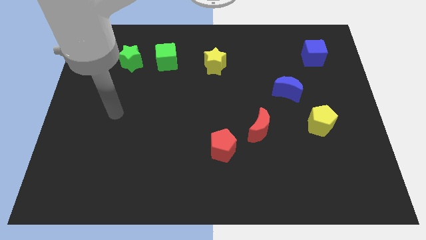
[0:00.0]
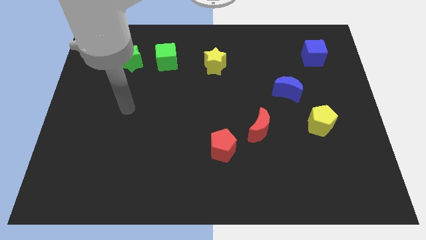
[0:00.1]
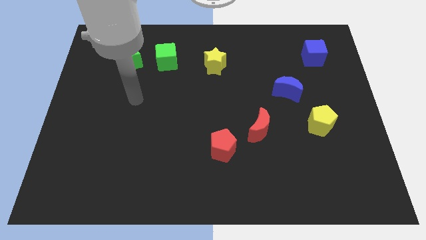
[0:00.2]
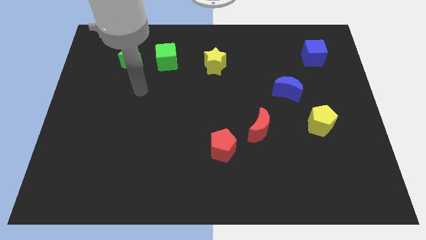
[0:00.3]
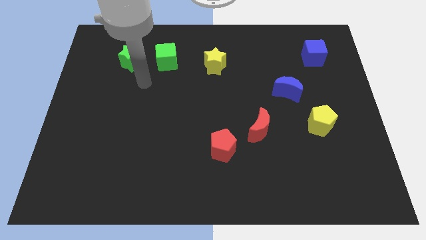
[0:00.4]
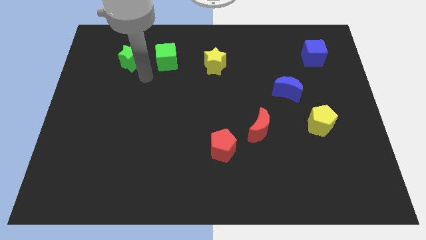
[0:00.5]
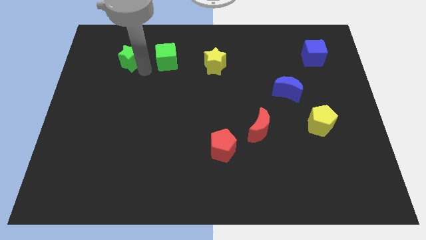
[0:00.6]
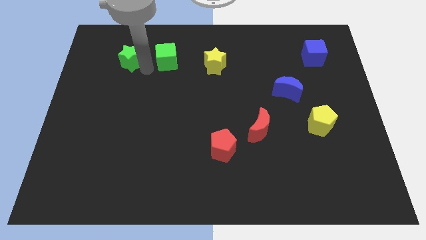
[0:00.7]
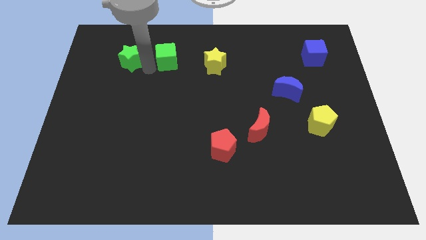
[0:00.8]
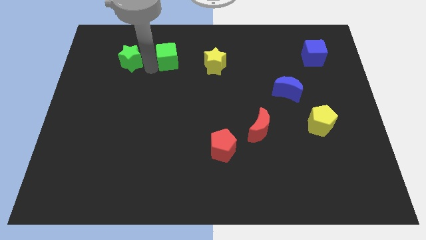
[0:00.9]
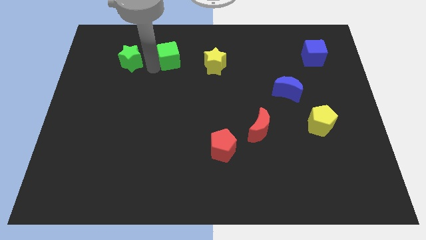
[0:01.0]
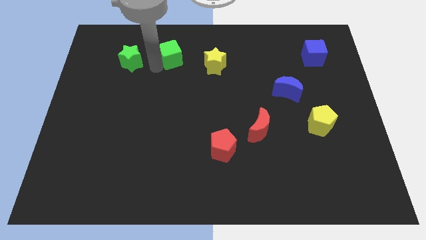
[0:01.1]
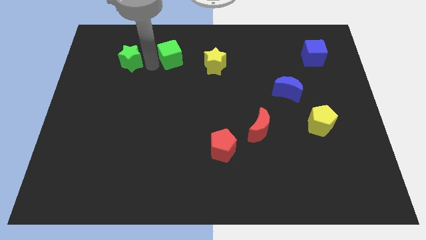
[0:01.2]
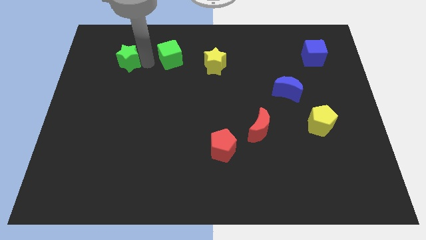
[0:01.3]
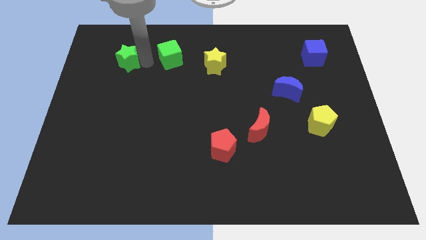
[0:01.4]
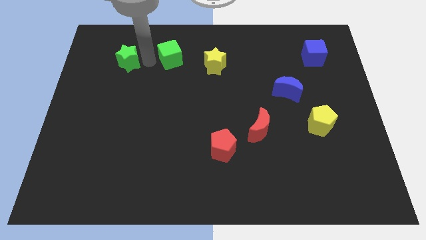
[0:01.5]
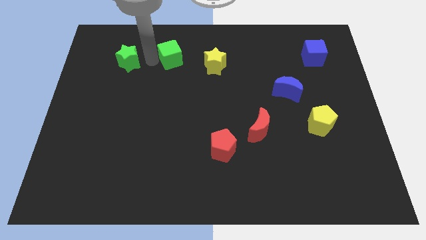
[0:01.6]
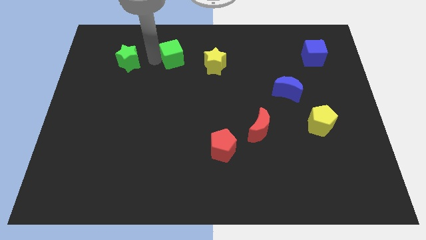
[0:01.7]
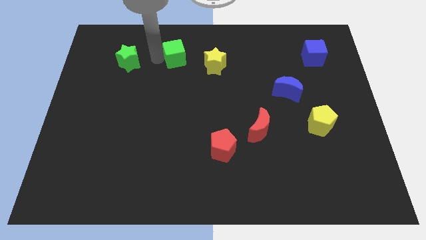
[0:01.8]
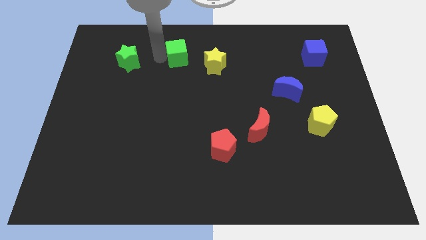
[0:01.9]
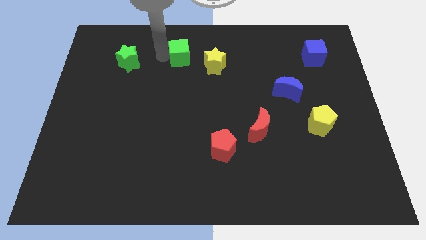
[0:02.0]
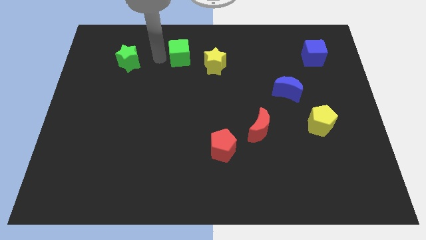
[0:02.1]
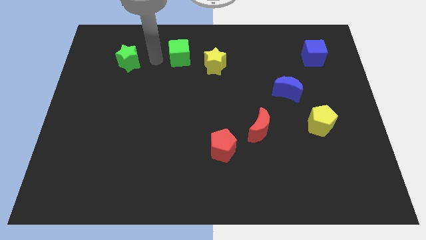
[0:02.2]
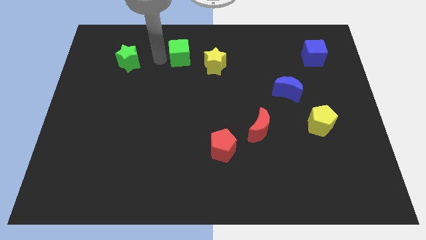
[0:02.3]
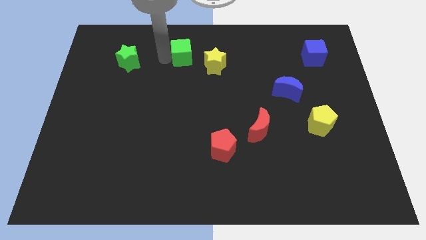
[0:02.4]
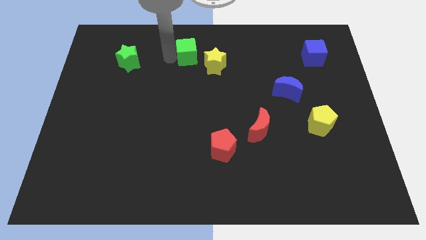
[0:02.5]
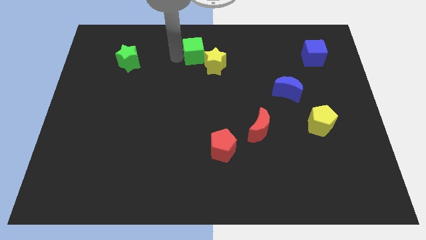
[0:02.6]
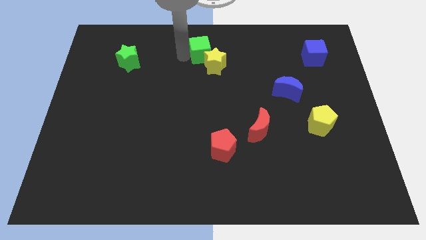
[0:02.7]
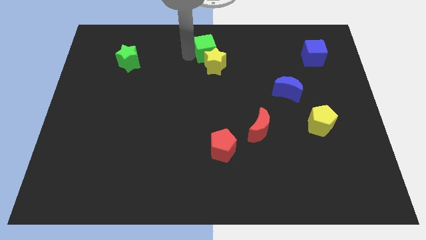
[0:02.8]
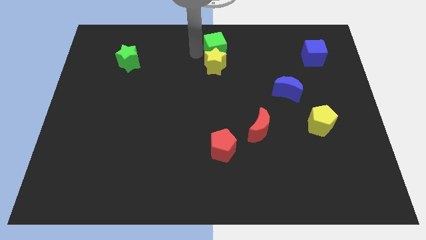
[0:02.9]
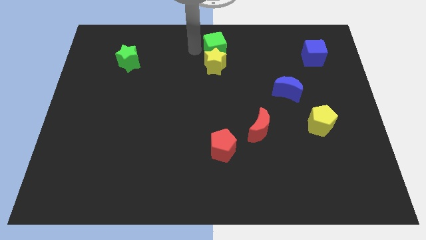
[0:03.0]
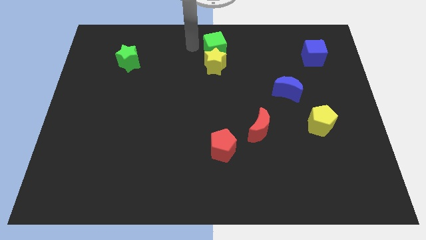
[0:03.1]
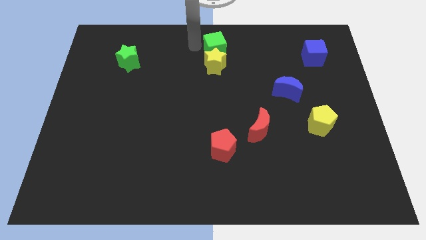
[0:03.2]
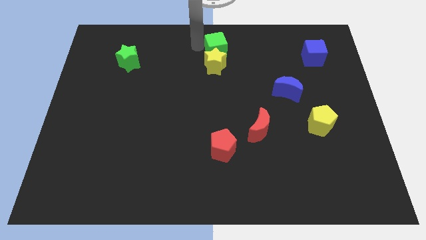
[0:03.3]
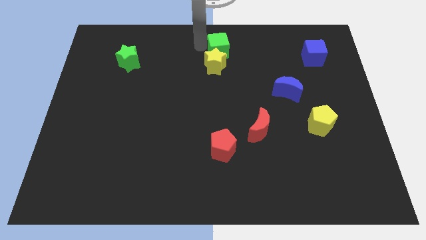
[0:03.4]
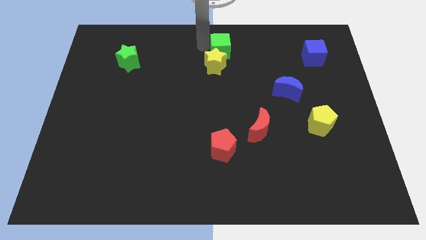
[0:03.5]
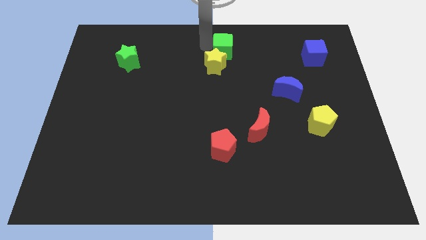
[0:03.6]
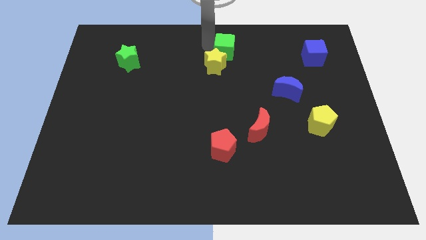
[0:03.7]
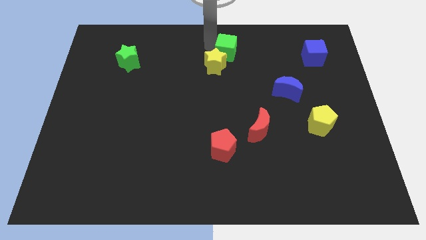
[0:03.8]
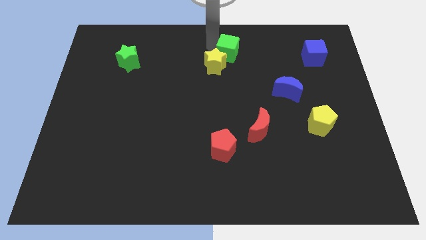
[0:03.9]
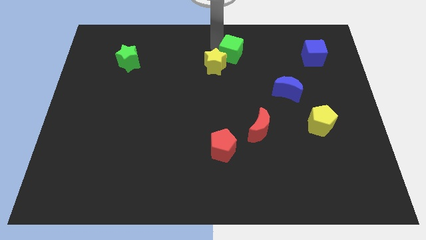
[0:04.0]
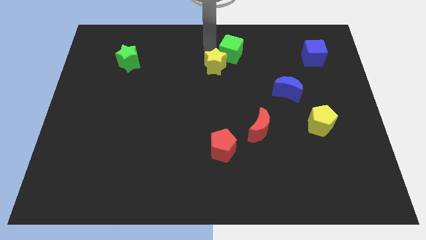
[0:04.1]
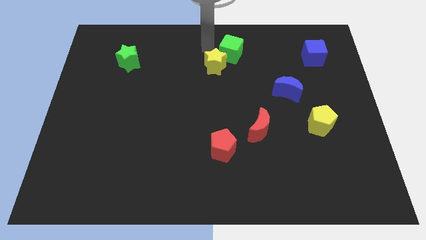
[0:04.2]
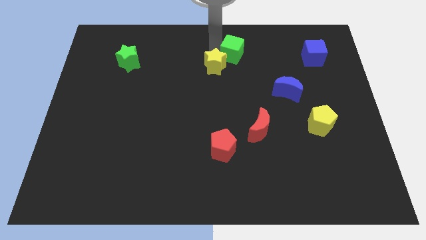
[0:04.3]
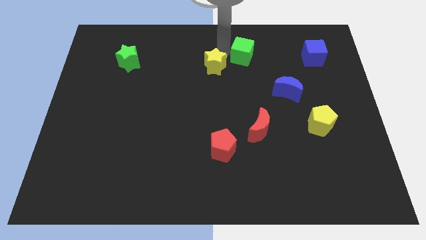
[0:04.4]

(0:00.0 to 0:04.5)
push the green cube to the right

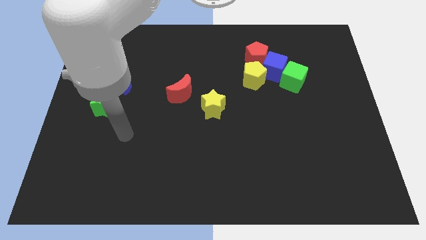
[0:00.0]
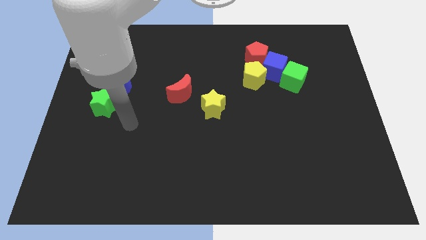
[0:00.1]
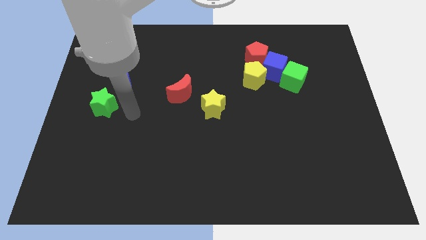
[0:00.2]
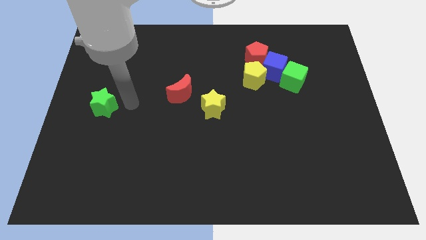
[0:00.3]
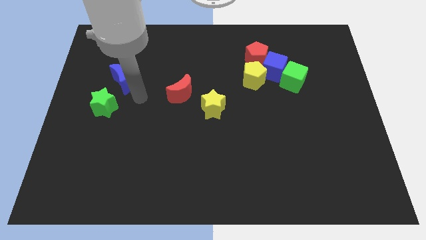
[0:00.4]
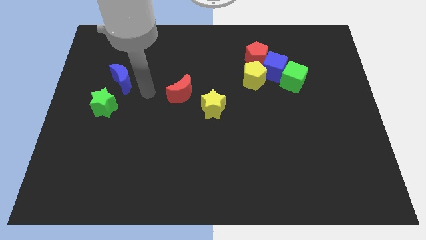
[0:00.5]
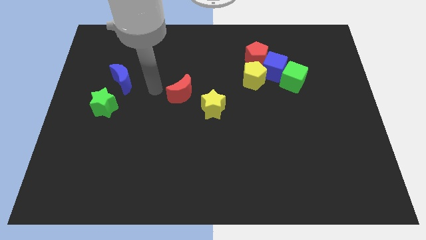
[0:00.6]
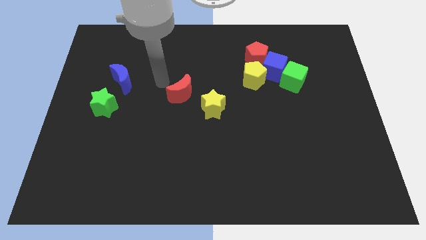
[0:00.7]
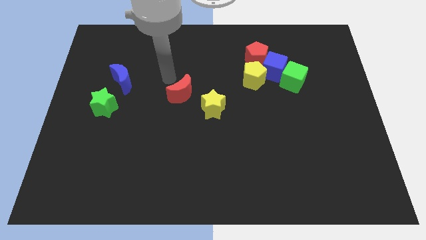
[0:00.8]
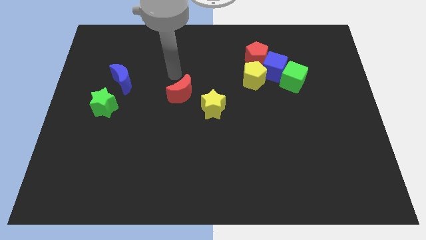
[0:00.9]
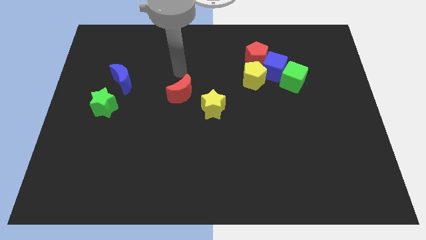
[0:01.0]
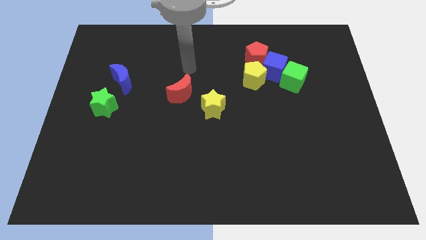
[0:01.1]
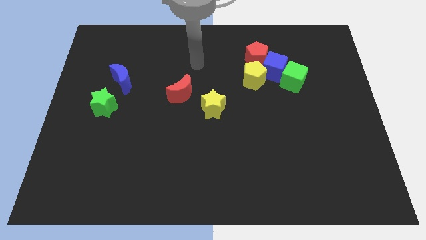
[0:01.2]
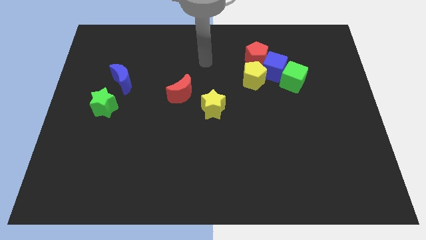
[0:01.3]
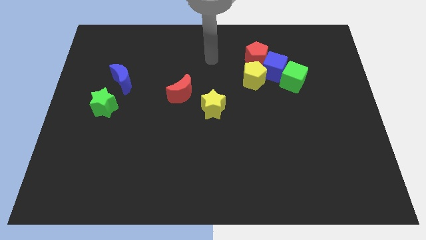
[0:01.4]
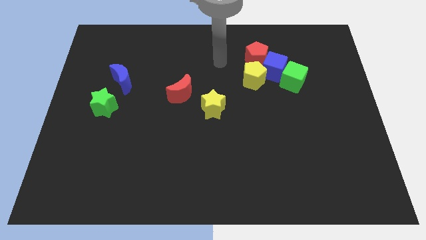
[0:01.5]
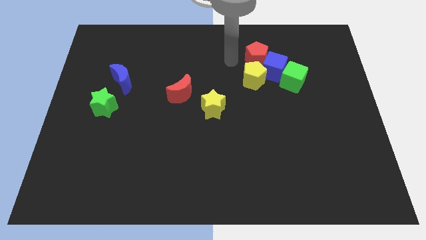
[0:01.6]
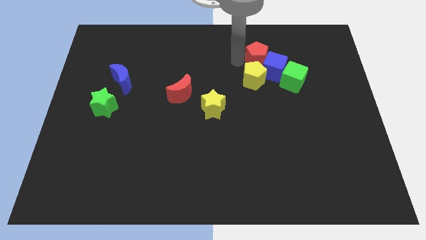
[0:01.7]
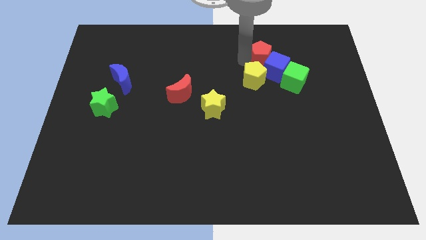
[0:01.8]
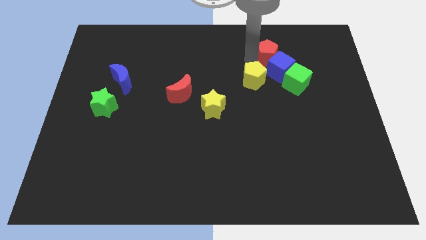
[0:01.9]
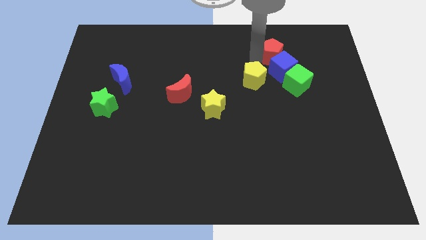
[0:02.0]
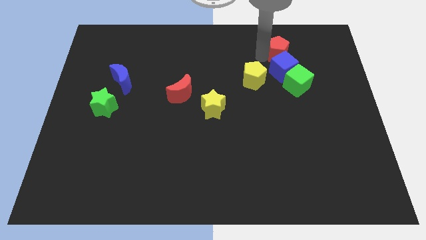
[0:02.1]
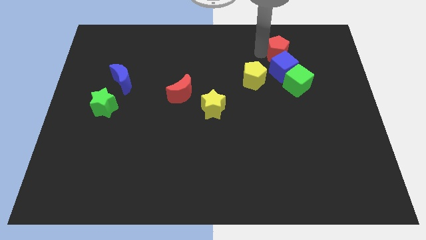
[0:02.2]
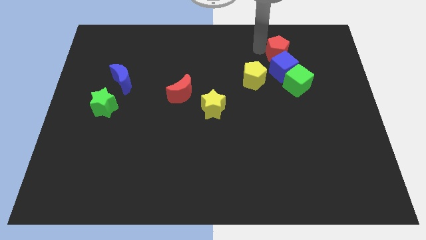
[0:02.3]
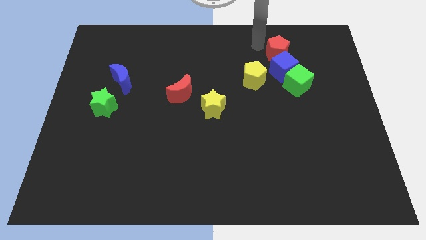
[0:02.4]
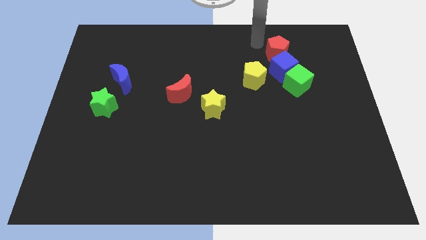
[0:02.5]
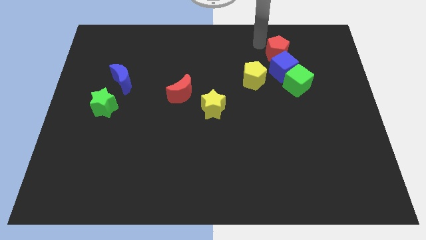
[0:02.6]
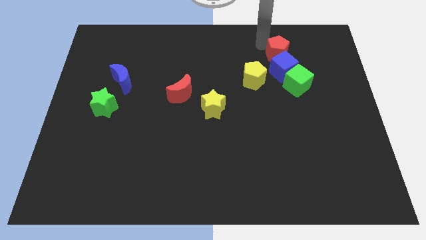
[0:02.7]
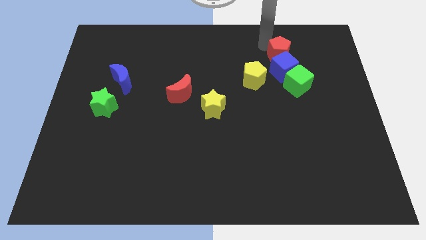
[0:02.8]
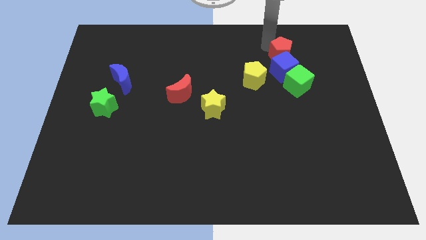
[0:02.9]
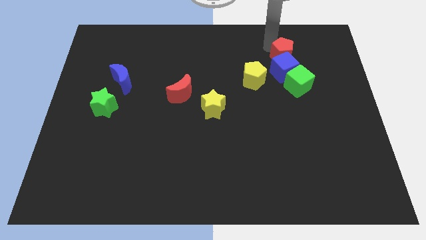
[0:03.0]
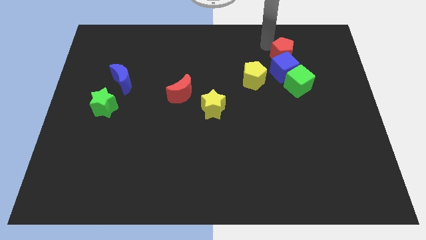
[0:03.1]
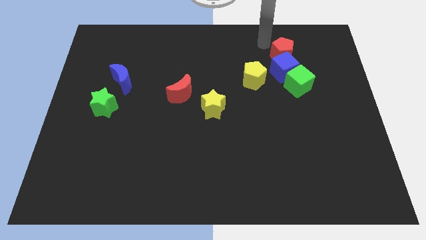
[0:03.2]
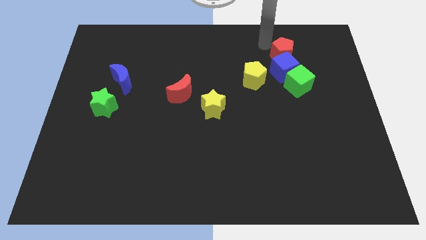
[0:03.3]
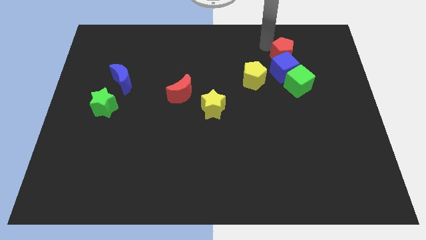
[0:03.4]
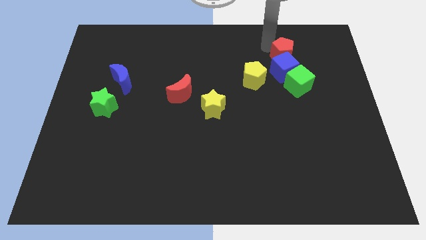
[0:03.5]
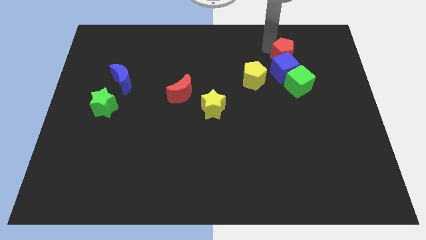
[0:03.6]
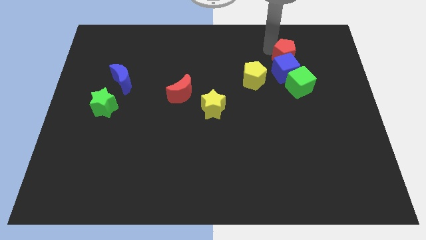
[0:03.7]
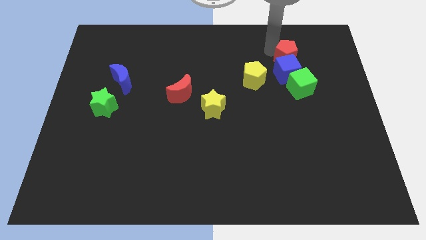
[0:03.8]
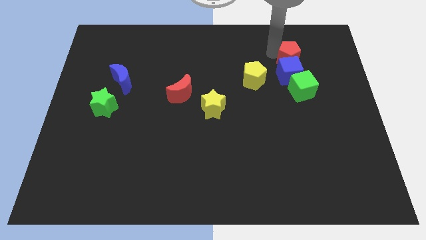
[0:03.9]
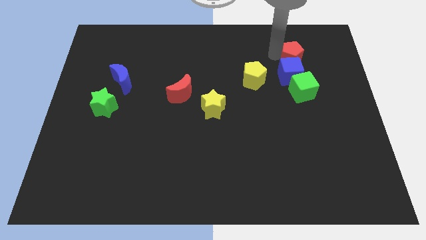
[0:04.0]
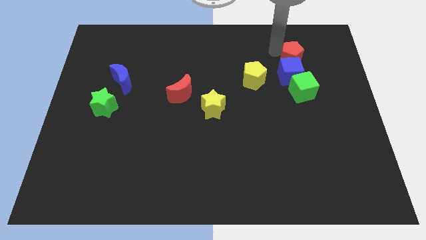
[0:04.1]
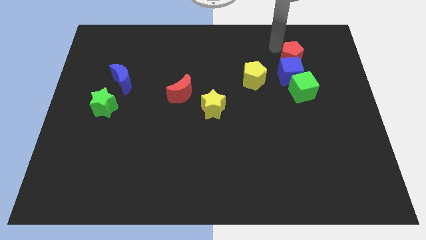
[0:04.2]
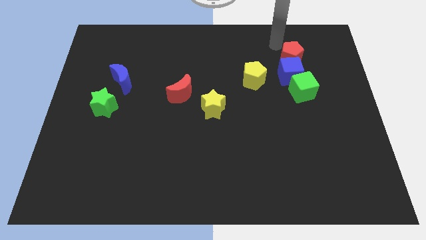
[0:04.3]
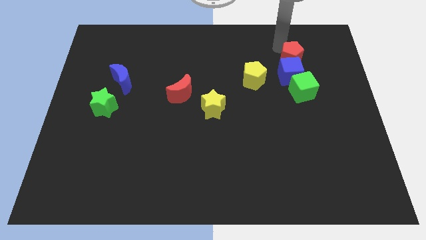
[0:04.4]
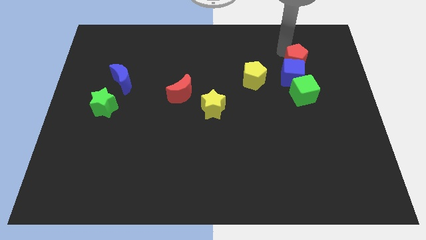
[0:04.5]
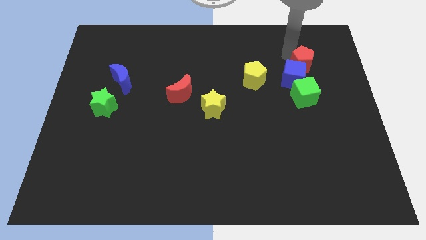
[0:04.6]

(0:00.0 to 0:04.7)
slightly push the red pentagon downwards and then right
